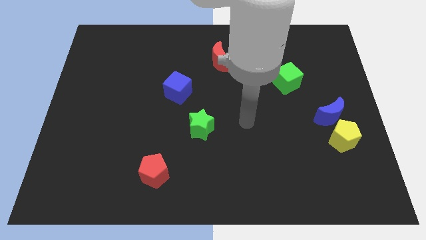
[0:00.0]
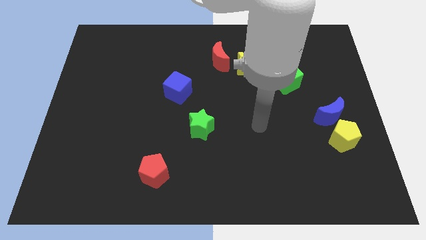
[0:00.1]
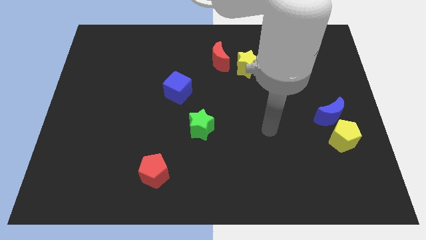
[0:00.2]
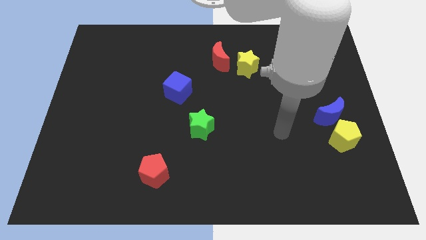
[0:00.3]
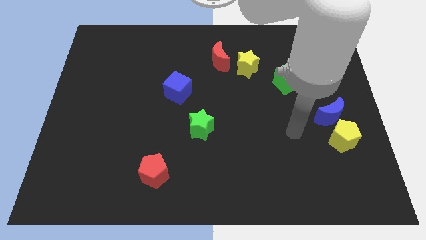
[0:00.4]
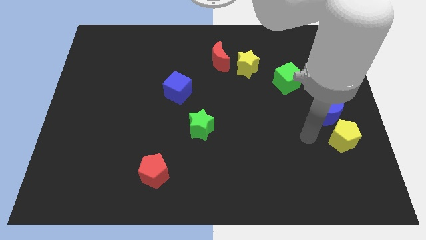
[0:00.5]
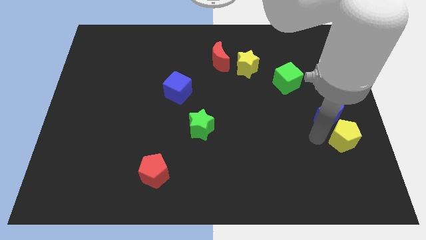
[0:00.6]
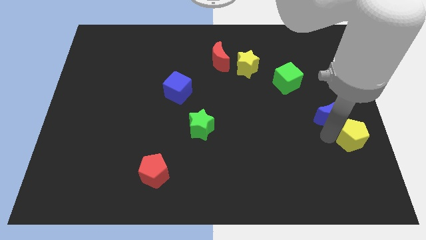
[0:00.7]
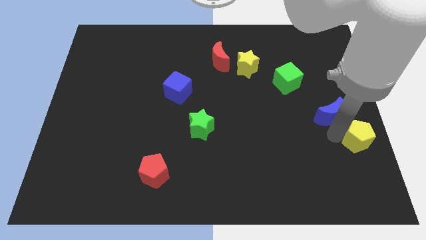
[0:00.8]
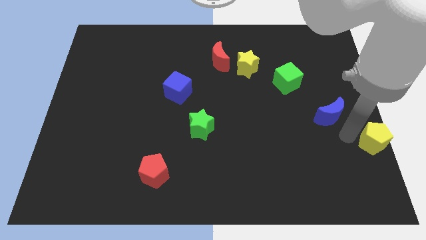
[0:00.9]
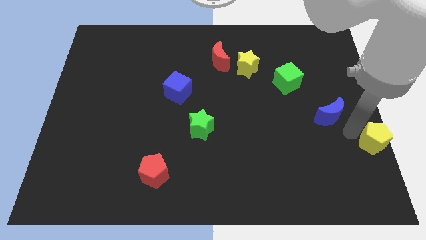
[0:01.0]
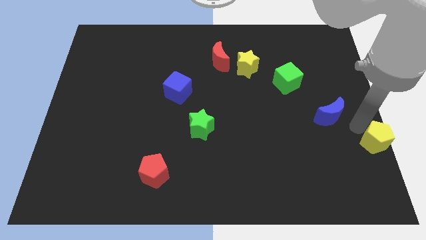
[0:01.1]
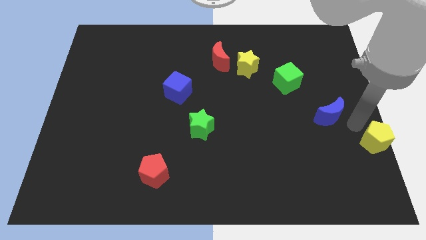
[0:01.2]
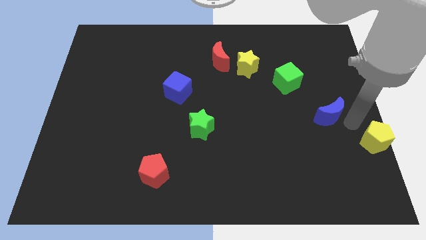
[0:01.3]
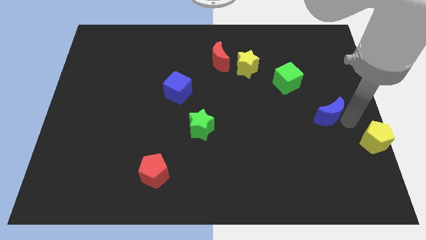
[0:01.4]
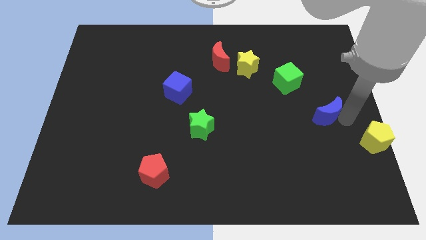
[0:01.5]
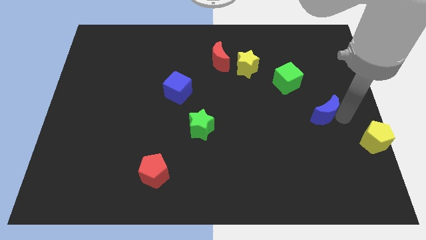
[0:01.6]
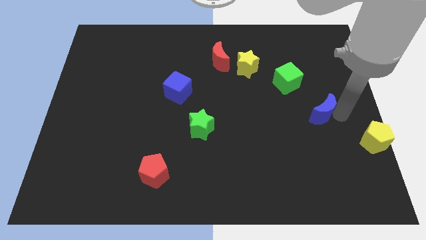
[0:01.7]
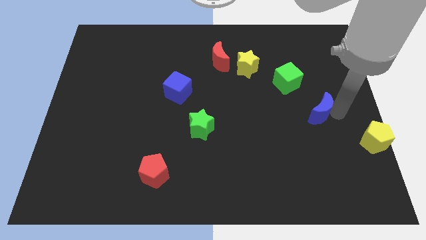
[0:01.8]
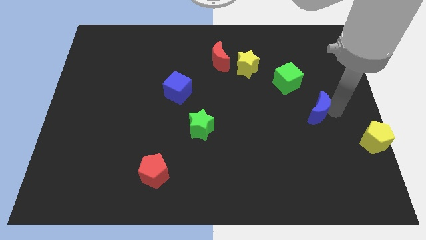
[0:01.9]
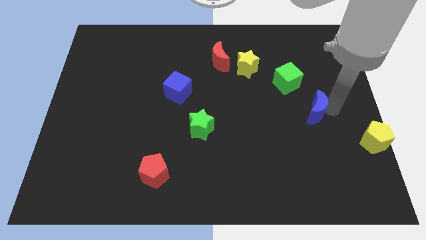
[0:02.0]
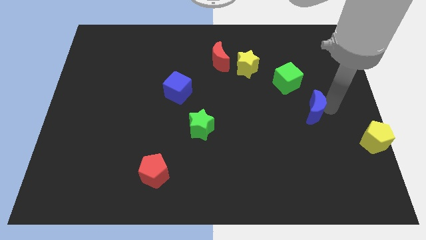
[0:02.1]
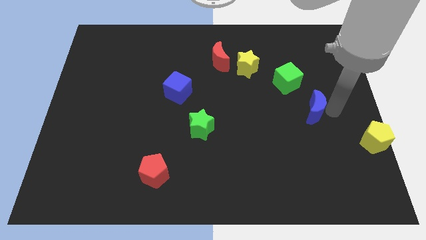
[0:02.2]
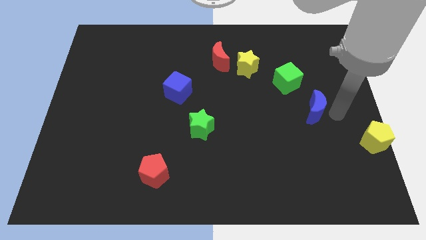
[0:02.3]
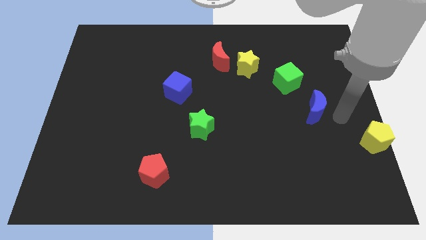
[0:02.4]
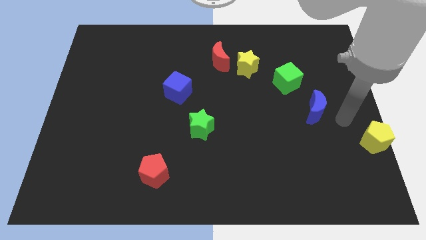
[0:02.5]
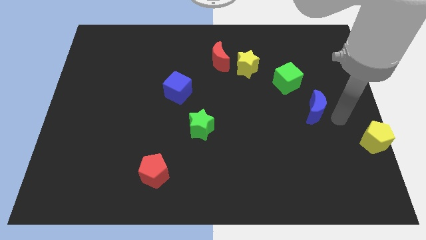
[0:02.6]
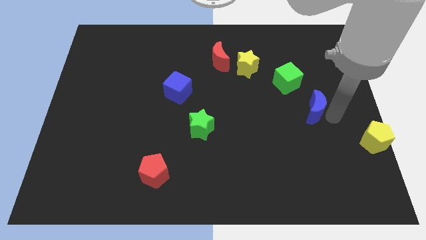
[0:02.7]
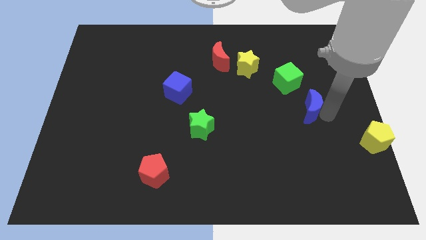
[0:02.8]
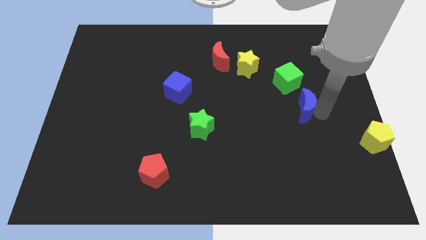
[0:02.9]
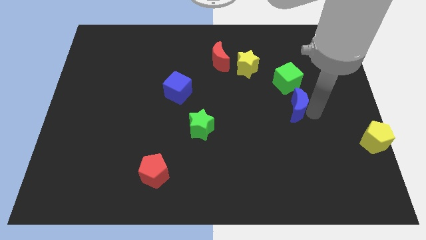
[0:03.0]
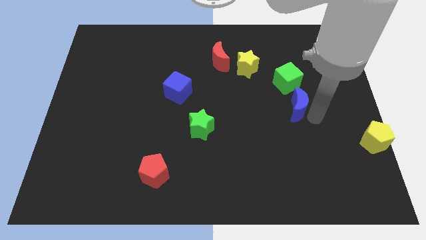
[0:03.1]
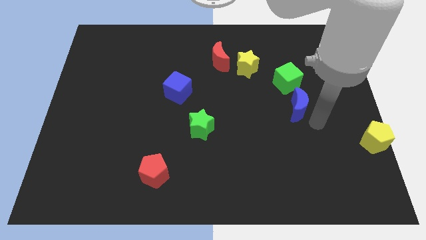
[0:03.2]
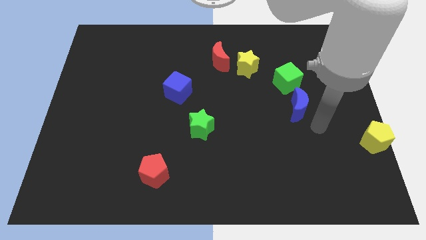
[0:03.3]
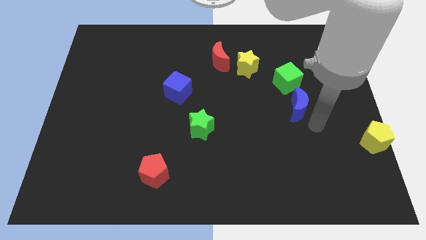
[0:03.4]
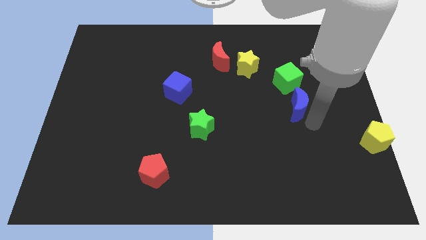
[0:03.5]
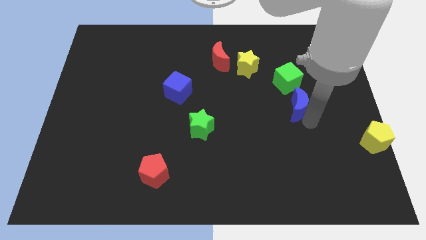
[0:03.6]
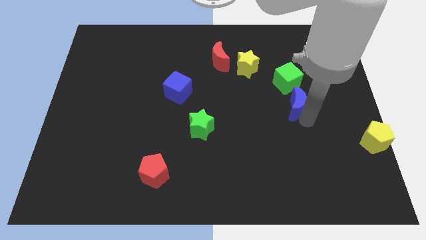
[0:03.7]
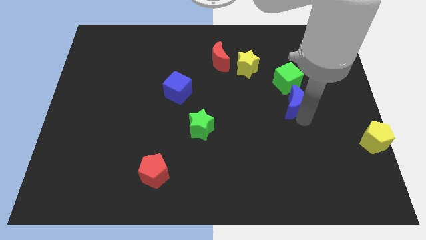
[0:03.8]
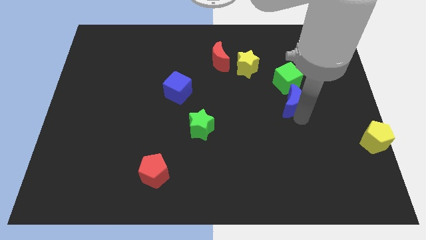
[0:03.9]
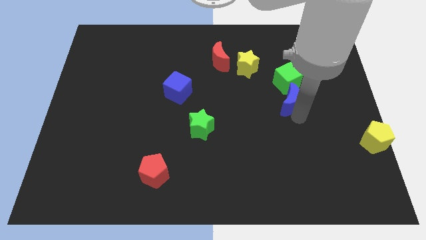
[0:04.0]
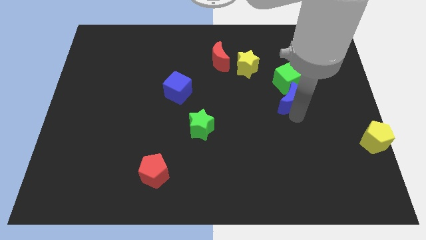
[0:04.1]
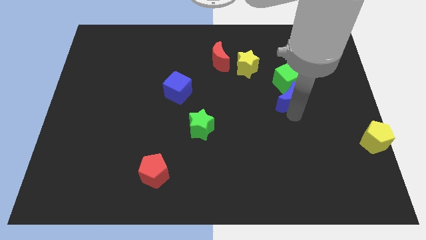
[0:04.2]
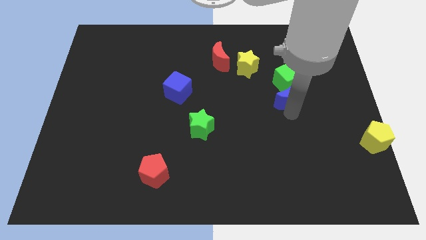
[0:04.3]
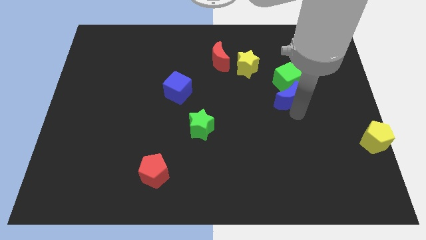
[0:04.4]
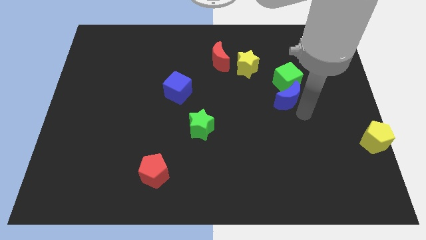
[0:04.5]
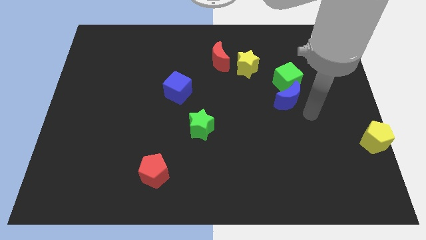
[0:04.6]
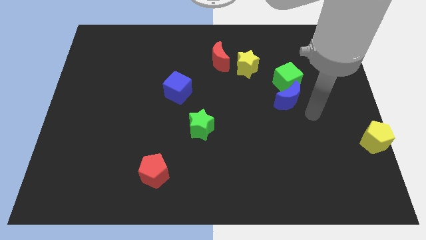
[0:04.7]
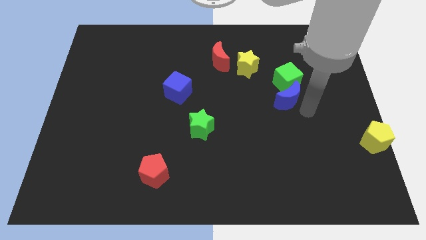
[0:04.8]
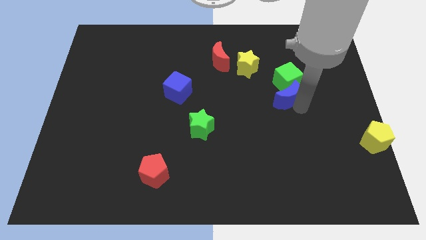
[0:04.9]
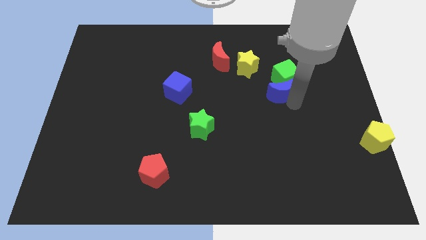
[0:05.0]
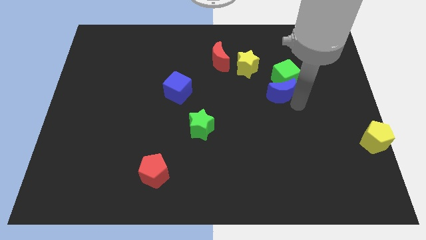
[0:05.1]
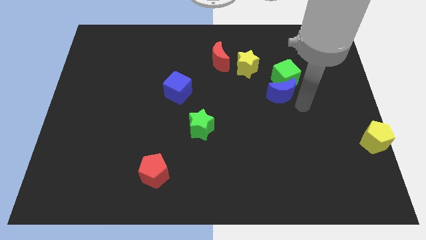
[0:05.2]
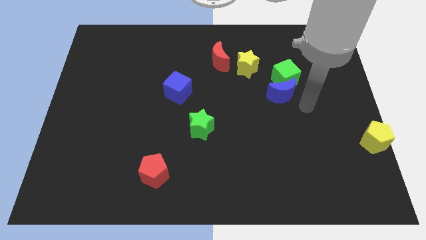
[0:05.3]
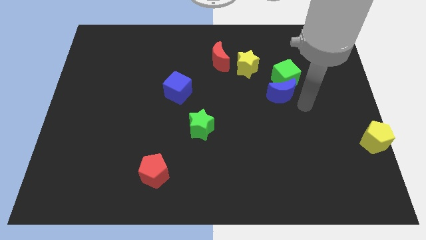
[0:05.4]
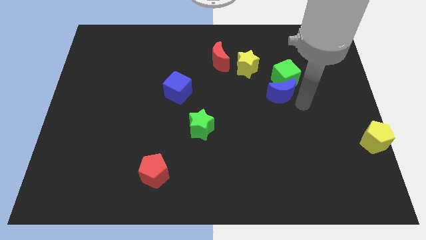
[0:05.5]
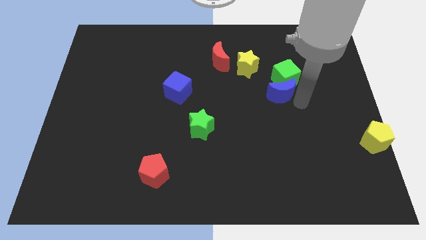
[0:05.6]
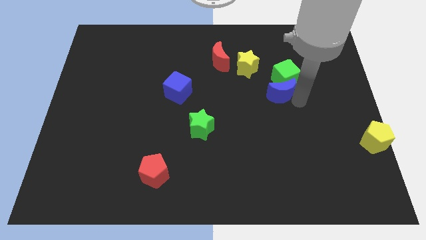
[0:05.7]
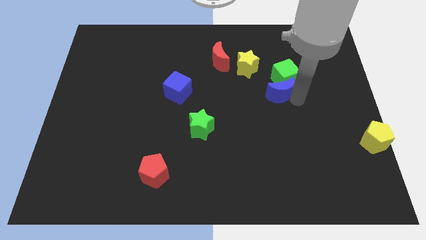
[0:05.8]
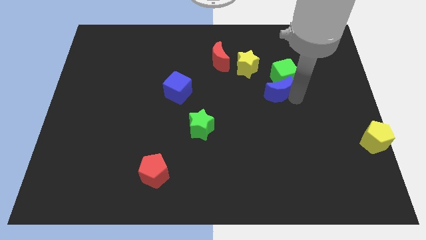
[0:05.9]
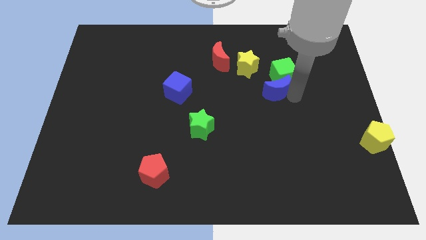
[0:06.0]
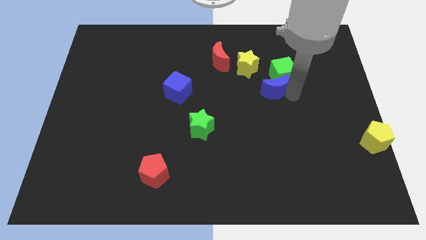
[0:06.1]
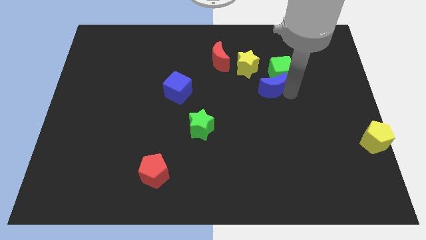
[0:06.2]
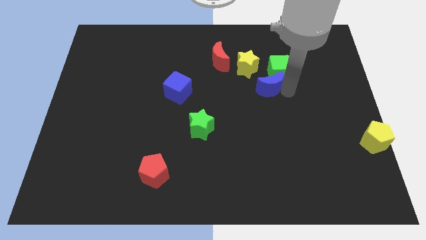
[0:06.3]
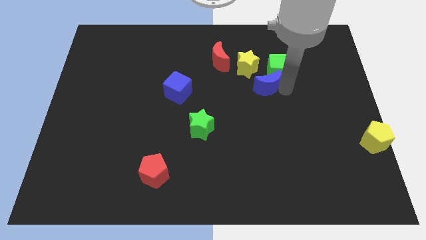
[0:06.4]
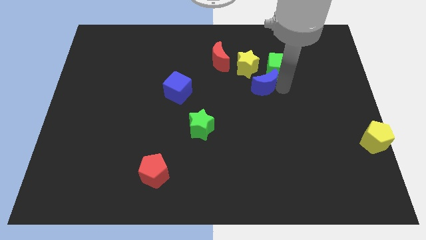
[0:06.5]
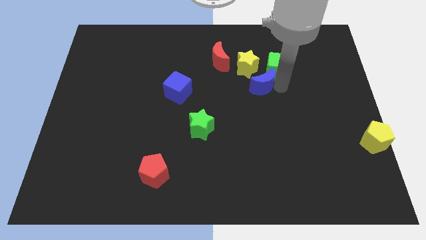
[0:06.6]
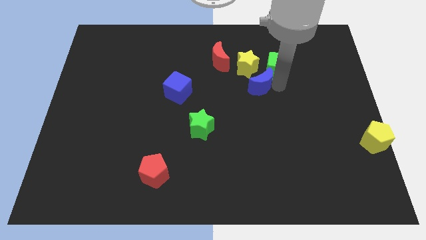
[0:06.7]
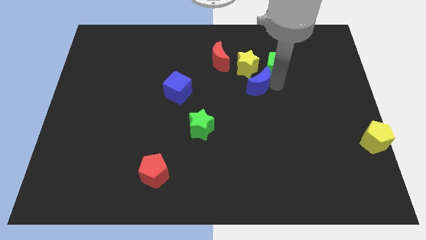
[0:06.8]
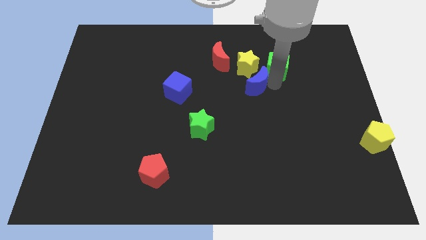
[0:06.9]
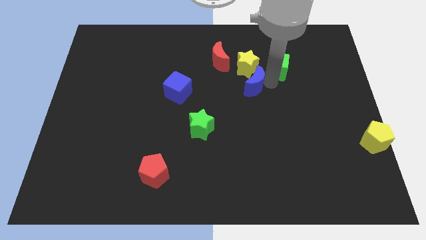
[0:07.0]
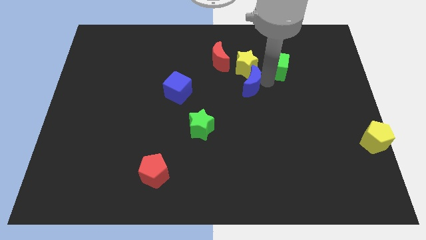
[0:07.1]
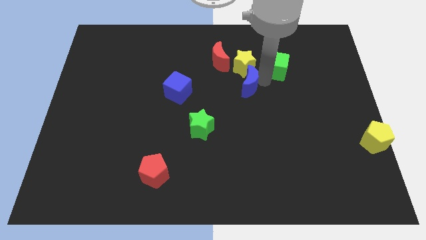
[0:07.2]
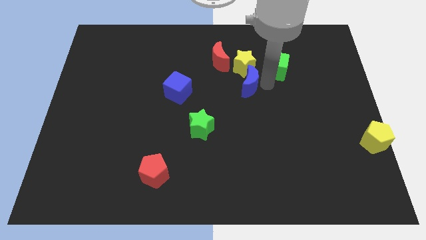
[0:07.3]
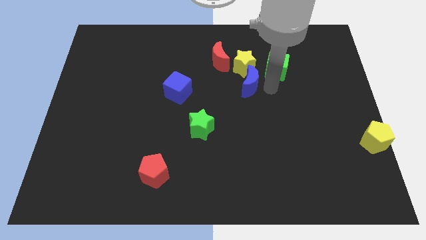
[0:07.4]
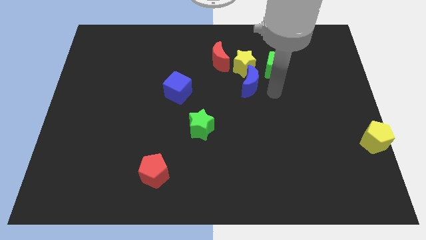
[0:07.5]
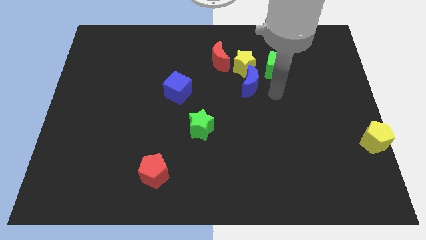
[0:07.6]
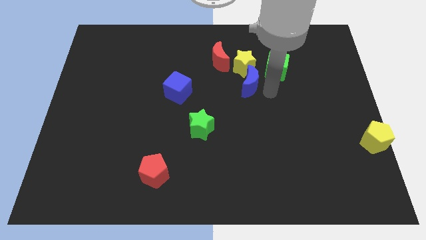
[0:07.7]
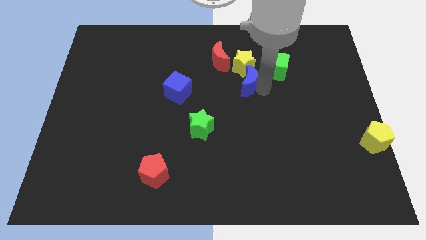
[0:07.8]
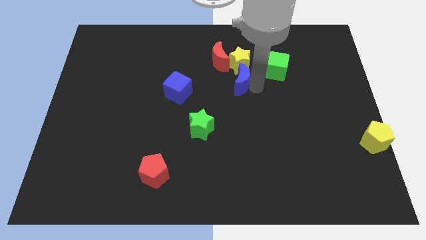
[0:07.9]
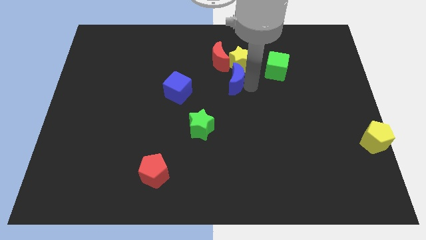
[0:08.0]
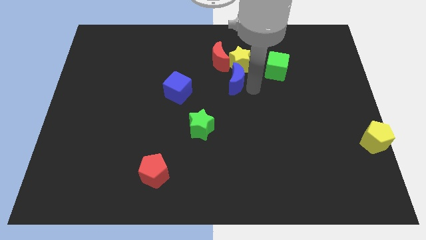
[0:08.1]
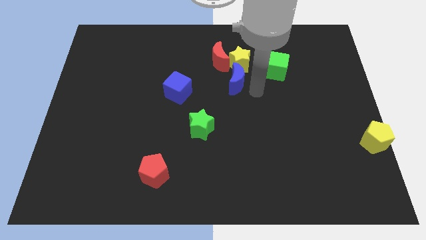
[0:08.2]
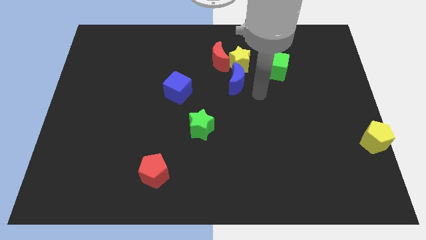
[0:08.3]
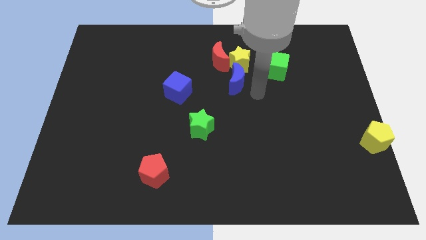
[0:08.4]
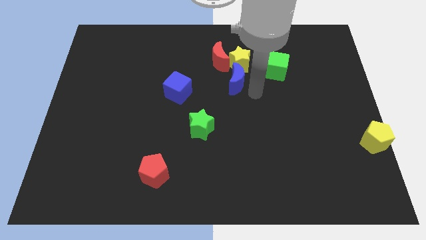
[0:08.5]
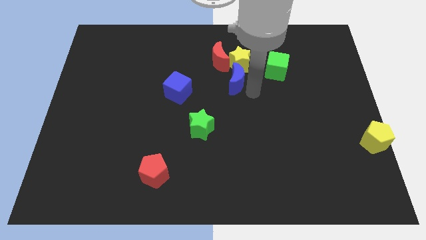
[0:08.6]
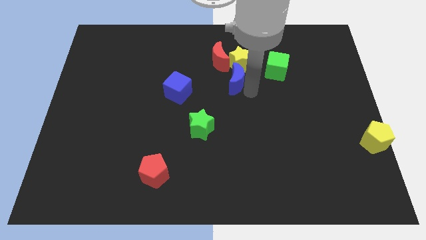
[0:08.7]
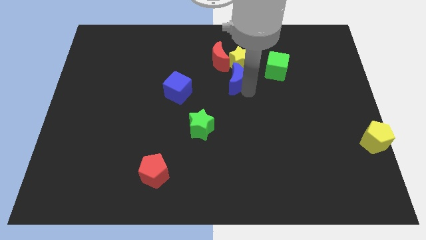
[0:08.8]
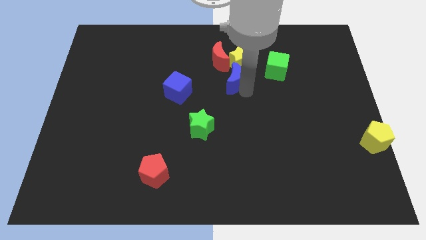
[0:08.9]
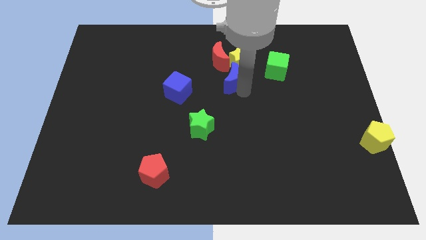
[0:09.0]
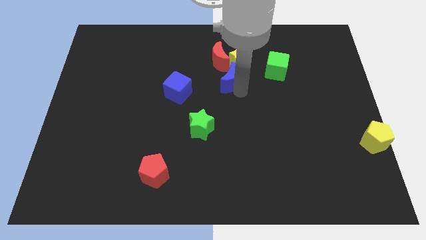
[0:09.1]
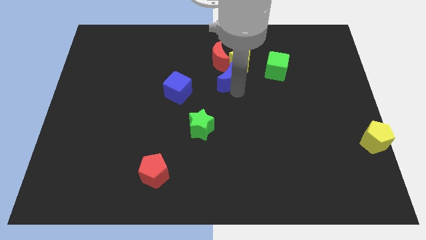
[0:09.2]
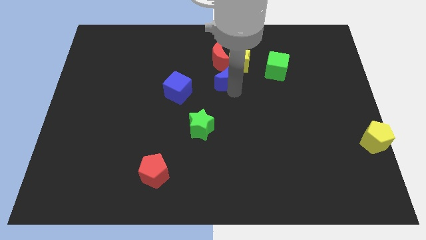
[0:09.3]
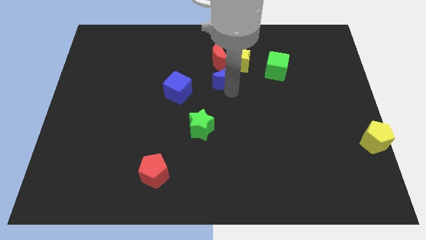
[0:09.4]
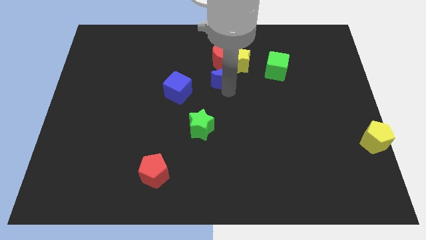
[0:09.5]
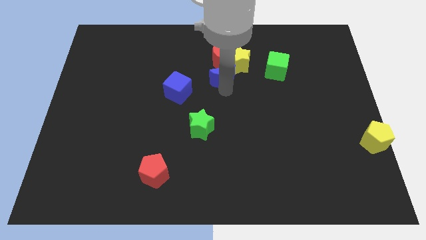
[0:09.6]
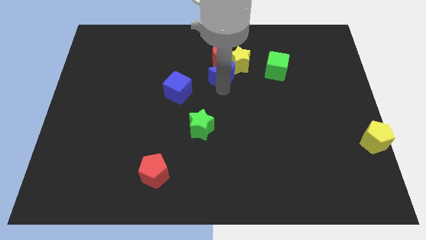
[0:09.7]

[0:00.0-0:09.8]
push the blue moon towards the red moon
